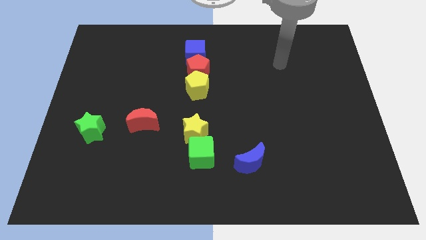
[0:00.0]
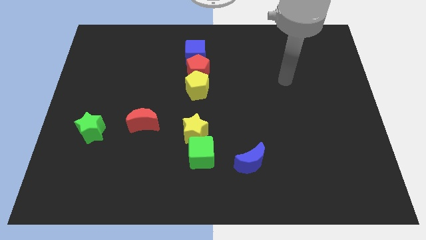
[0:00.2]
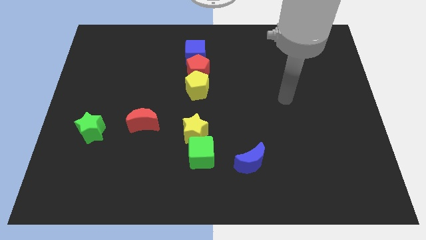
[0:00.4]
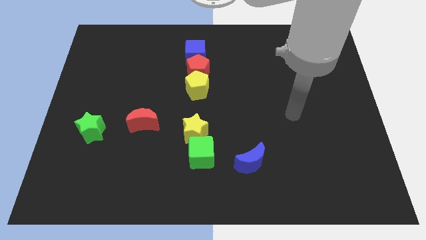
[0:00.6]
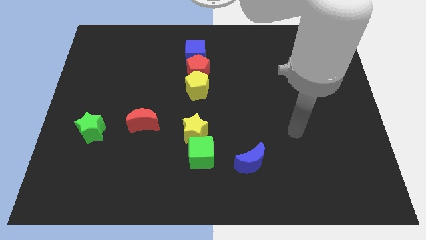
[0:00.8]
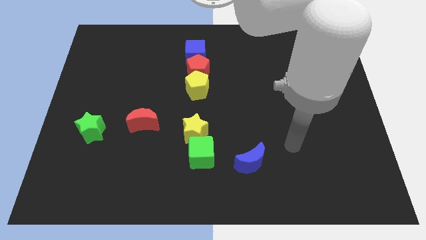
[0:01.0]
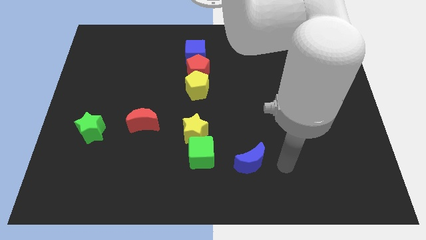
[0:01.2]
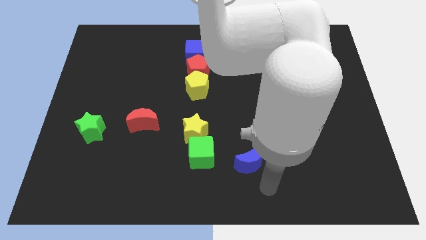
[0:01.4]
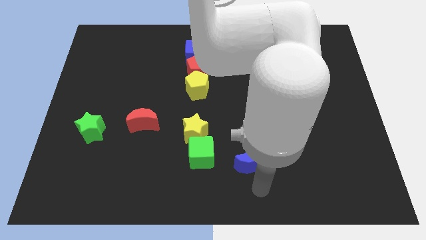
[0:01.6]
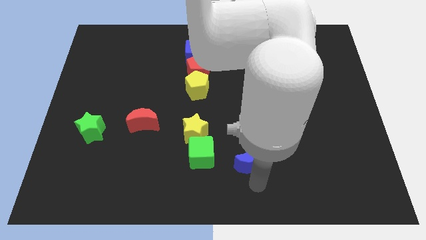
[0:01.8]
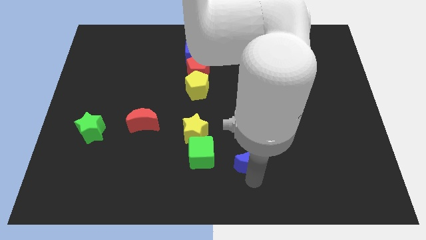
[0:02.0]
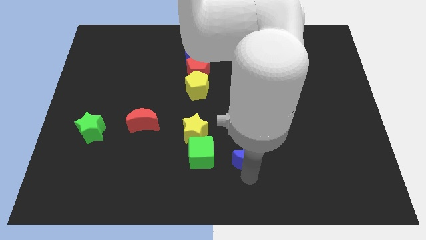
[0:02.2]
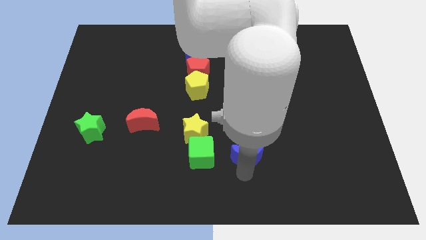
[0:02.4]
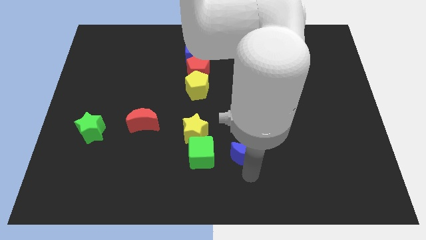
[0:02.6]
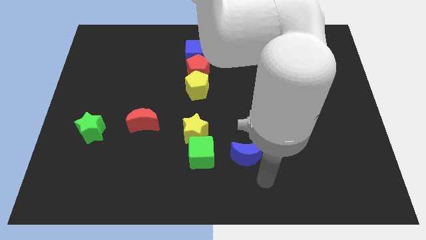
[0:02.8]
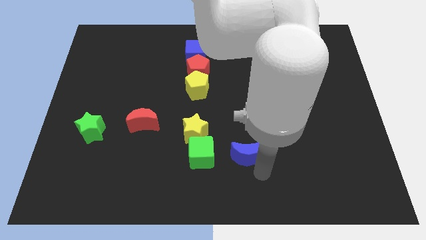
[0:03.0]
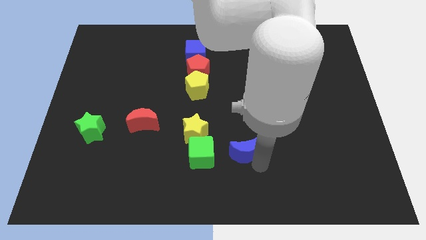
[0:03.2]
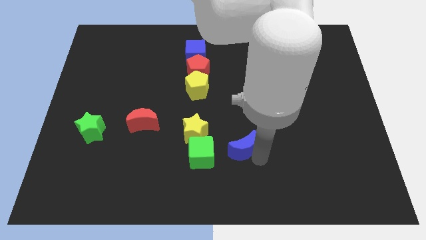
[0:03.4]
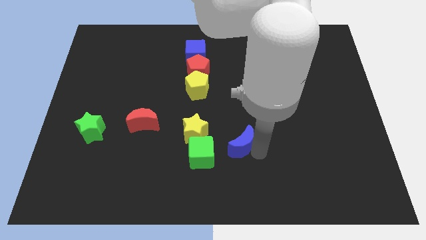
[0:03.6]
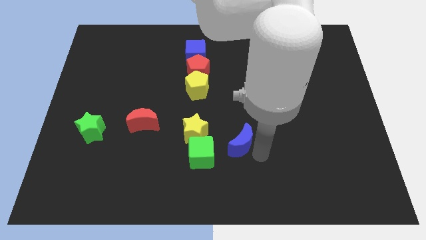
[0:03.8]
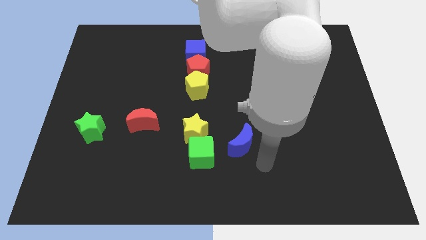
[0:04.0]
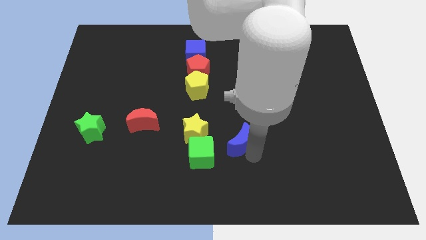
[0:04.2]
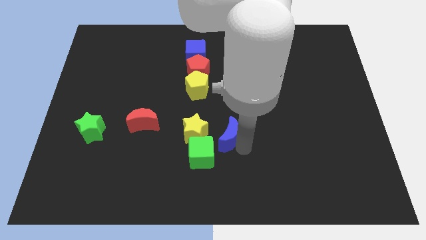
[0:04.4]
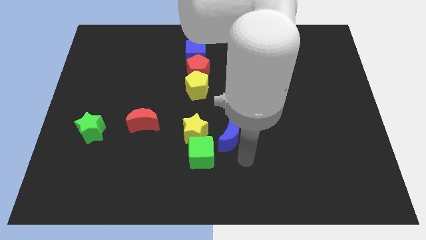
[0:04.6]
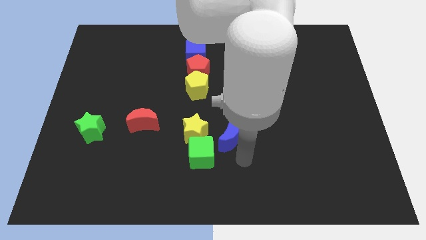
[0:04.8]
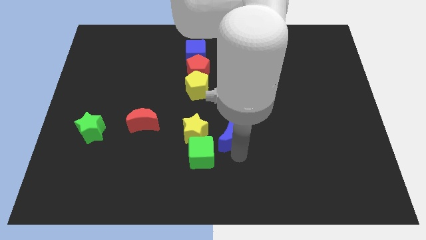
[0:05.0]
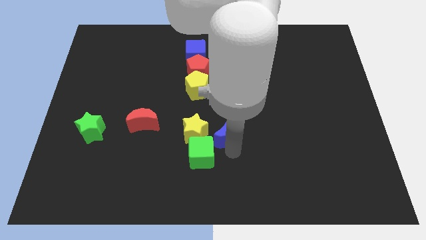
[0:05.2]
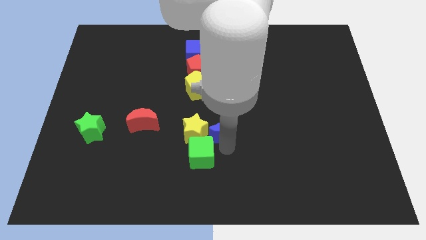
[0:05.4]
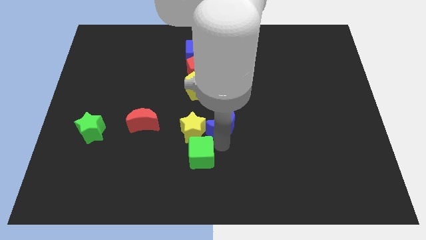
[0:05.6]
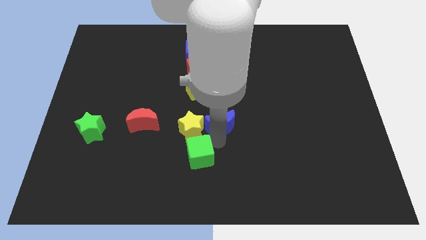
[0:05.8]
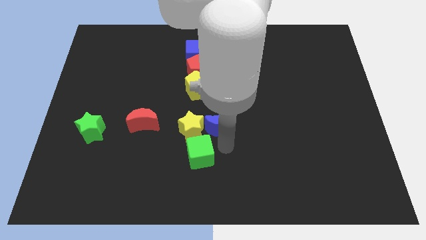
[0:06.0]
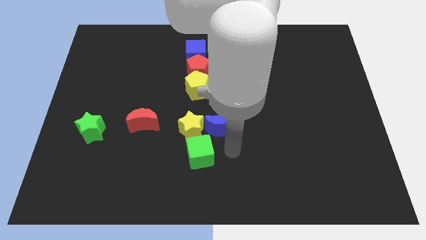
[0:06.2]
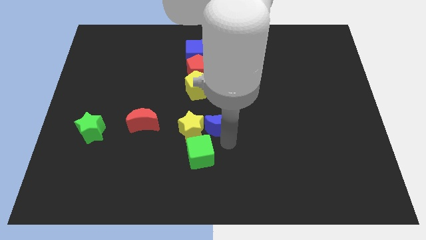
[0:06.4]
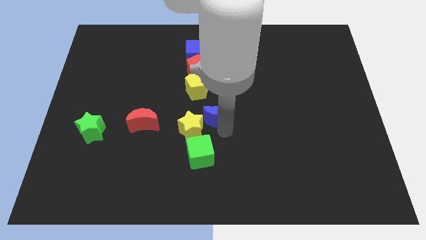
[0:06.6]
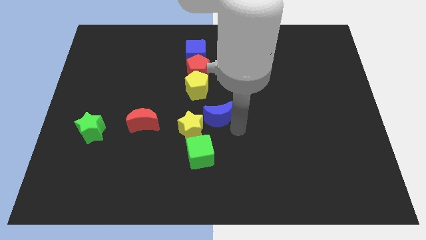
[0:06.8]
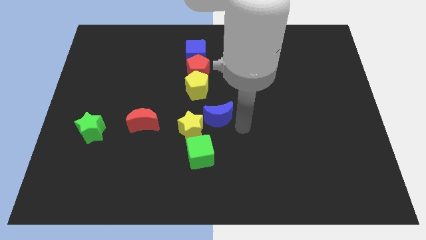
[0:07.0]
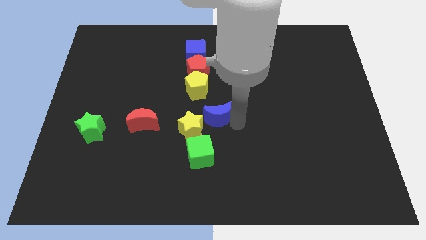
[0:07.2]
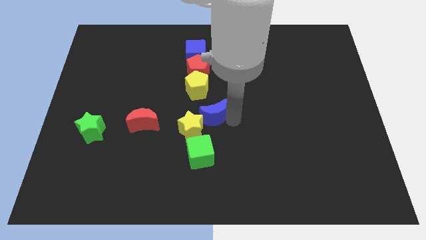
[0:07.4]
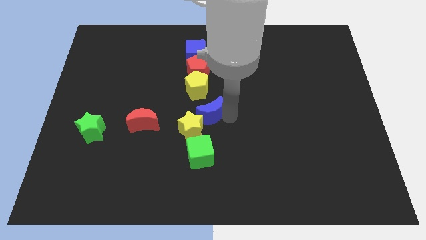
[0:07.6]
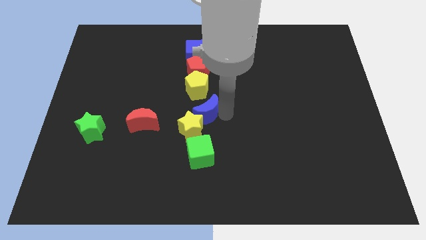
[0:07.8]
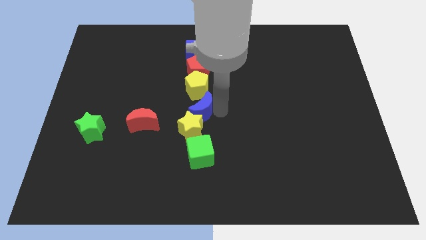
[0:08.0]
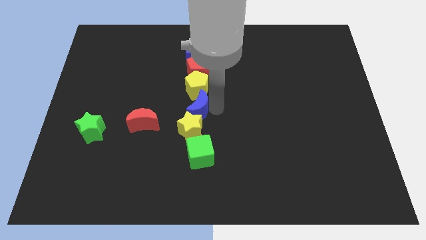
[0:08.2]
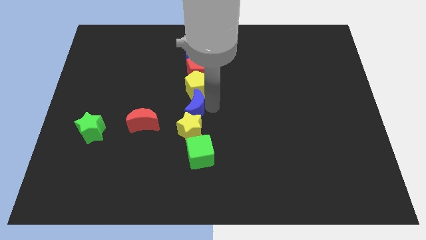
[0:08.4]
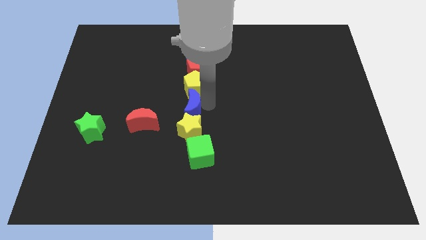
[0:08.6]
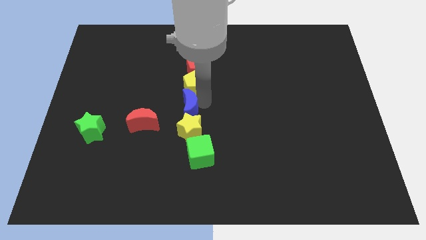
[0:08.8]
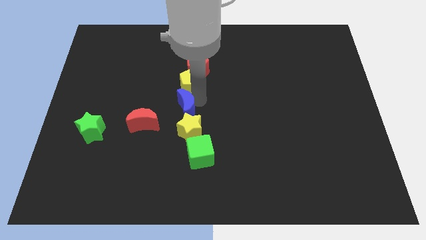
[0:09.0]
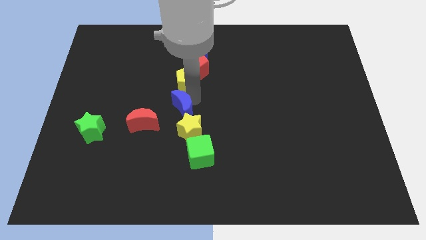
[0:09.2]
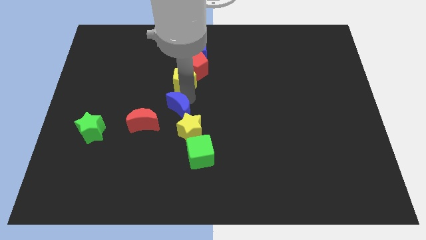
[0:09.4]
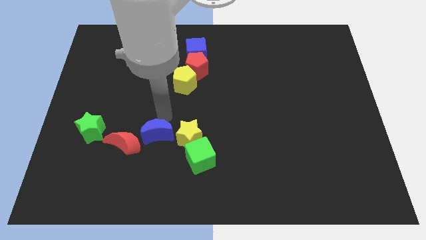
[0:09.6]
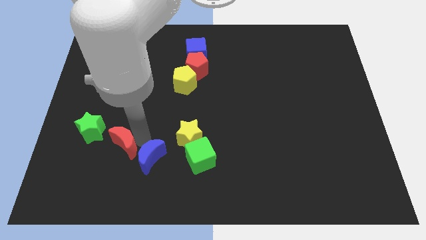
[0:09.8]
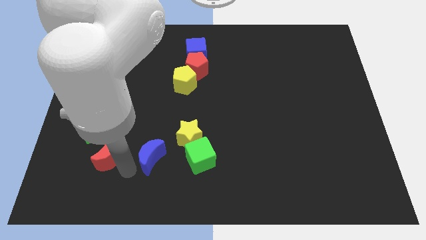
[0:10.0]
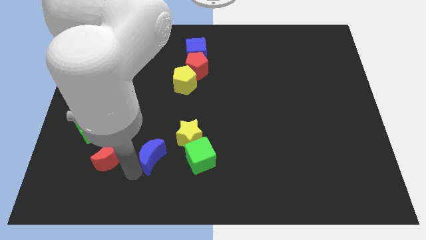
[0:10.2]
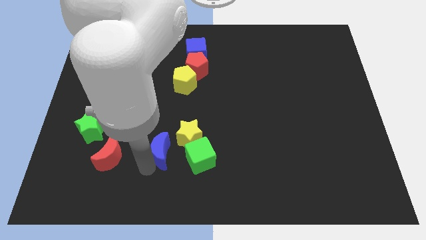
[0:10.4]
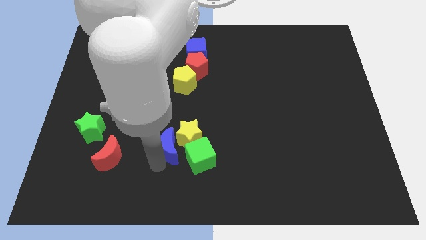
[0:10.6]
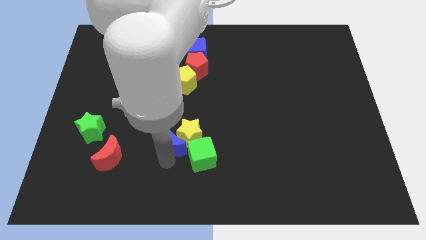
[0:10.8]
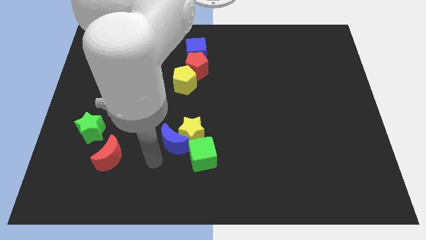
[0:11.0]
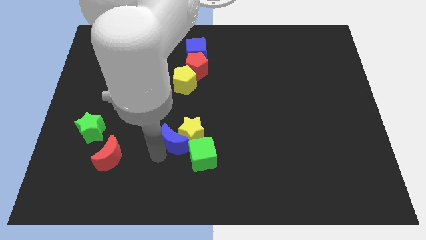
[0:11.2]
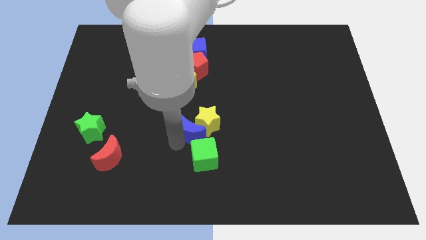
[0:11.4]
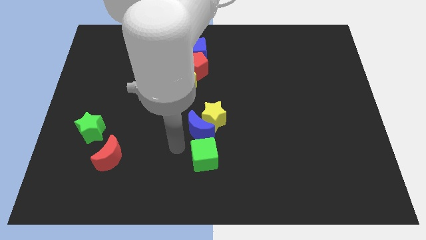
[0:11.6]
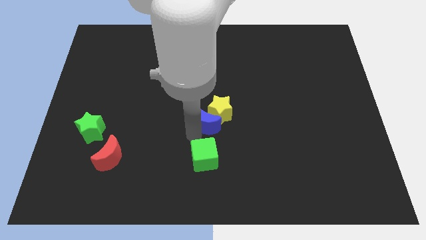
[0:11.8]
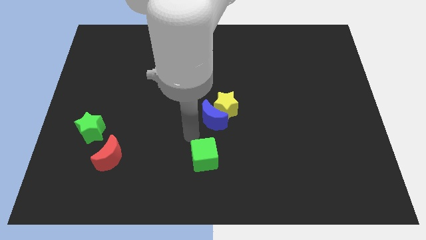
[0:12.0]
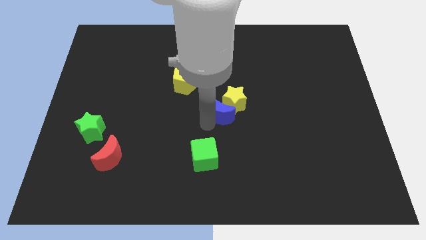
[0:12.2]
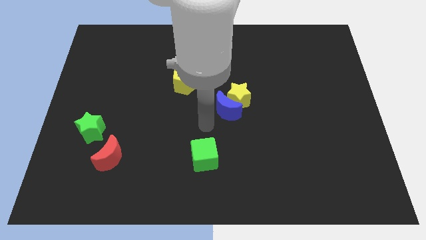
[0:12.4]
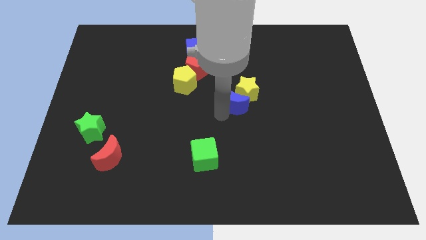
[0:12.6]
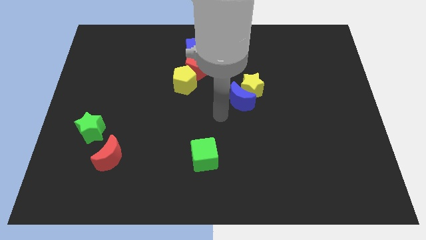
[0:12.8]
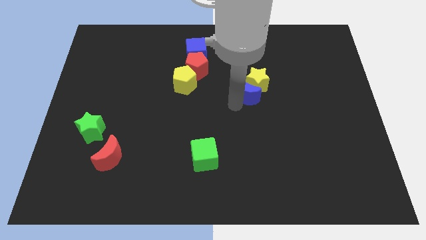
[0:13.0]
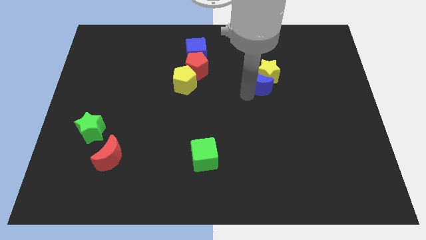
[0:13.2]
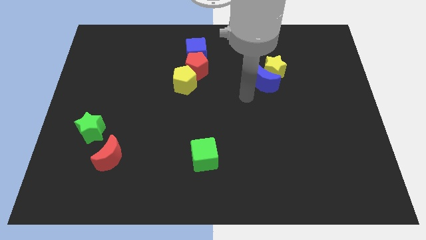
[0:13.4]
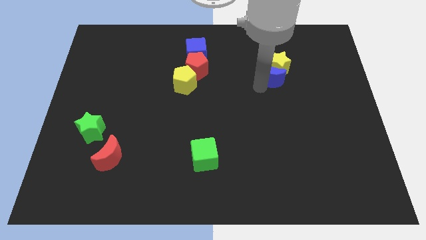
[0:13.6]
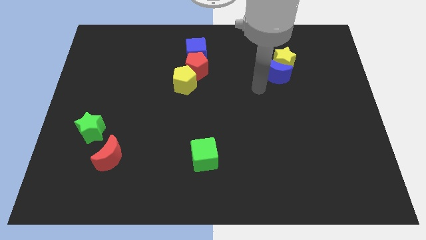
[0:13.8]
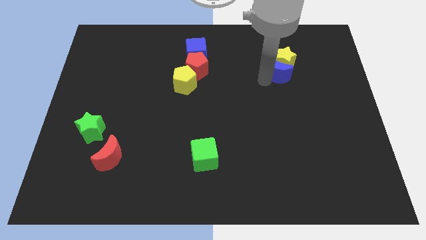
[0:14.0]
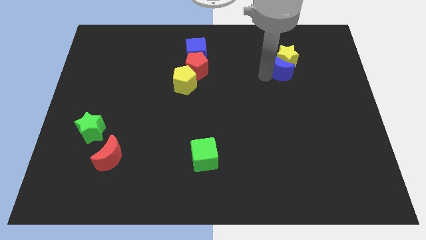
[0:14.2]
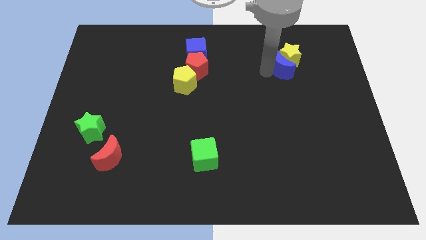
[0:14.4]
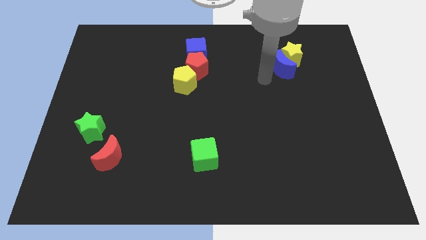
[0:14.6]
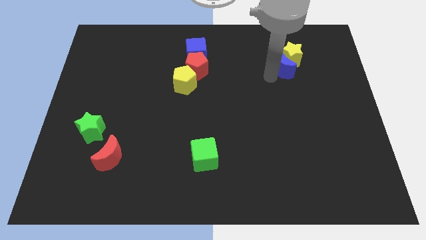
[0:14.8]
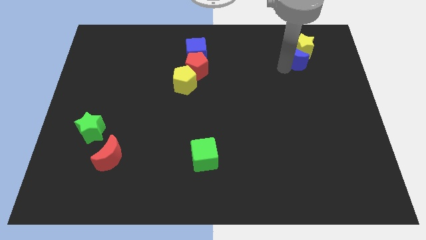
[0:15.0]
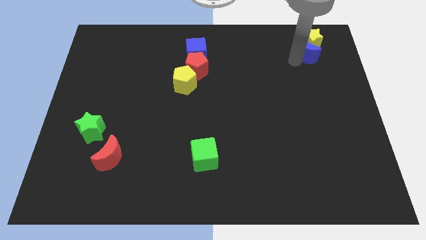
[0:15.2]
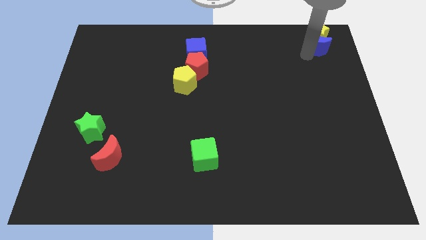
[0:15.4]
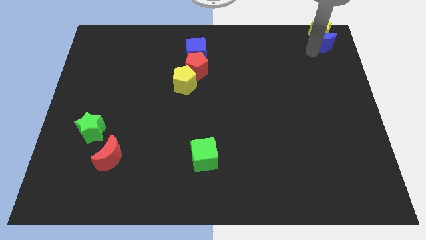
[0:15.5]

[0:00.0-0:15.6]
slide the blue moon to the upper right corner
